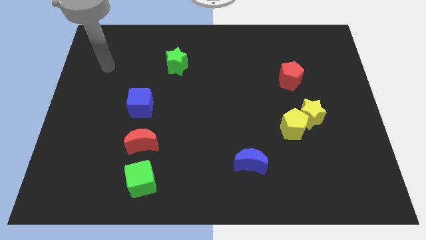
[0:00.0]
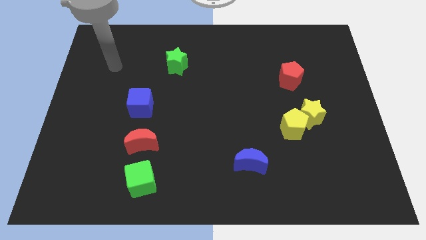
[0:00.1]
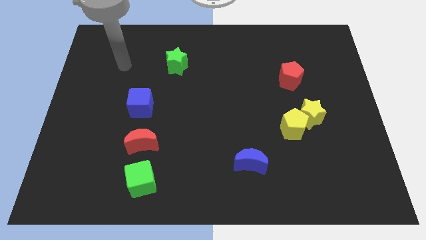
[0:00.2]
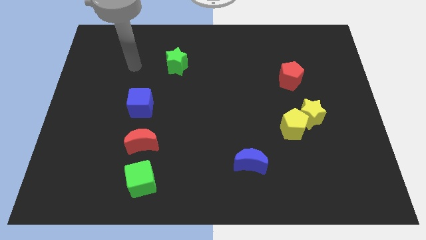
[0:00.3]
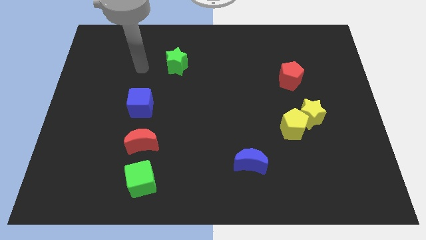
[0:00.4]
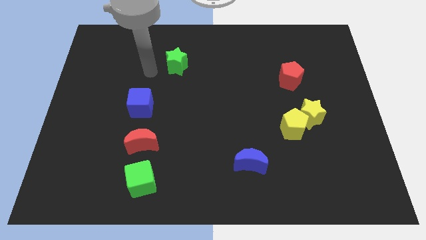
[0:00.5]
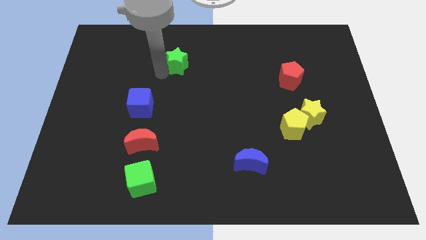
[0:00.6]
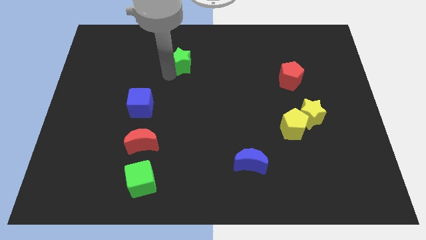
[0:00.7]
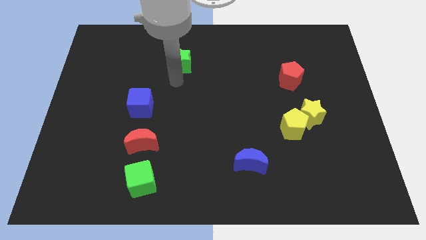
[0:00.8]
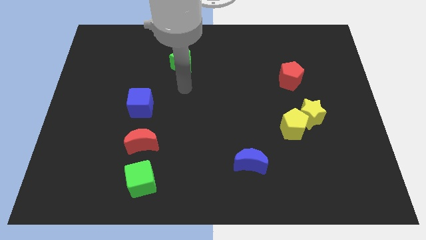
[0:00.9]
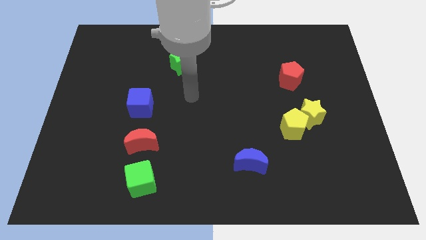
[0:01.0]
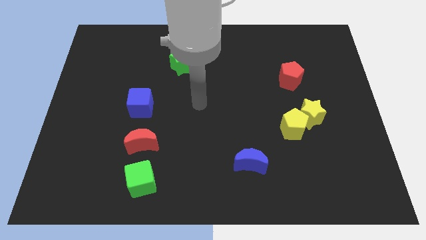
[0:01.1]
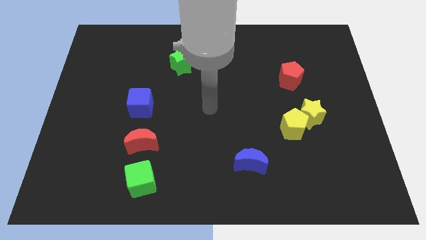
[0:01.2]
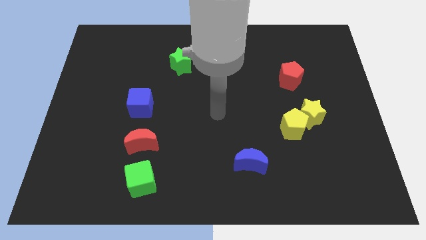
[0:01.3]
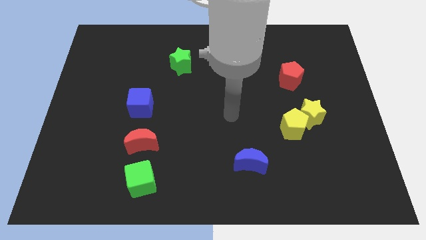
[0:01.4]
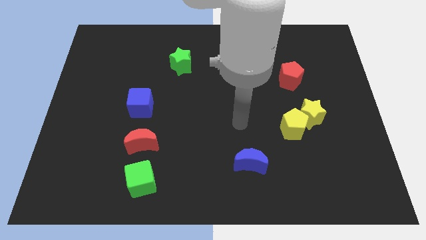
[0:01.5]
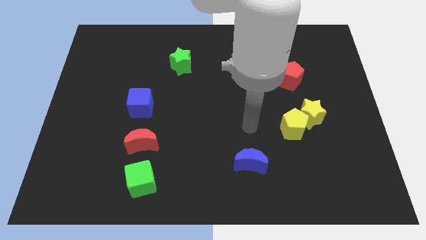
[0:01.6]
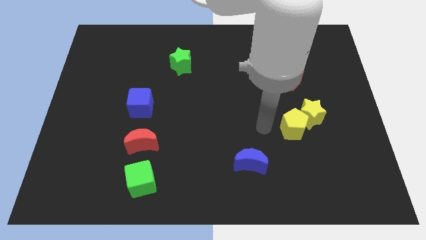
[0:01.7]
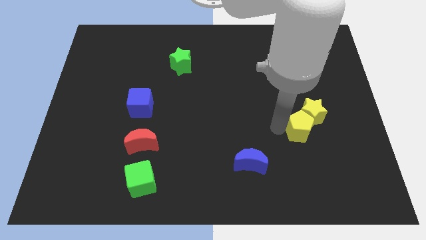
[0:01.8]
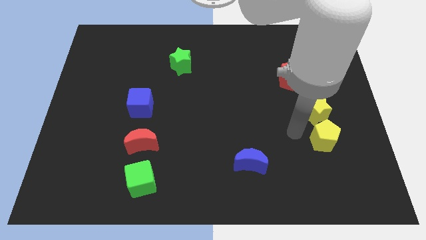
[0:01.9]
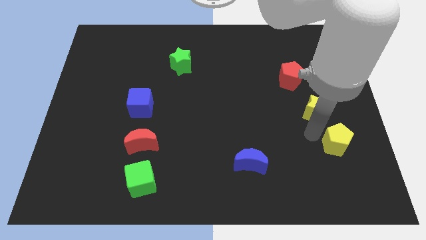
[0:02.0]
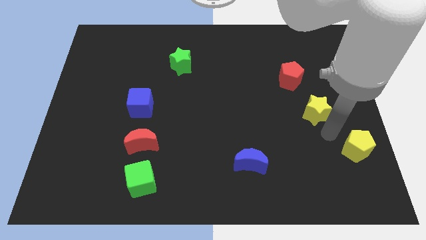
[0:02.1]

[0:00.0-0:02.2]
pull the yellow star apart from the yellow pentagon

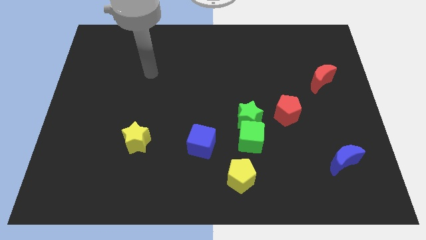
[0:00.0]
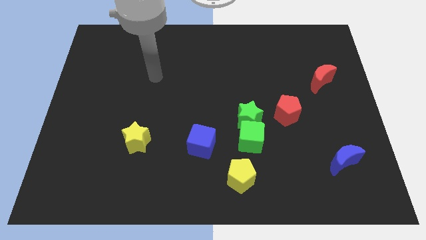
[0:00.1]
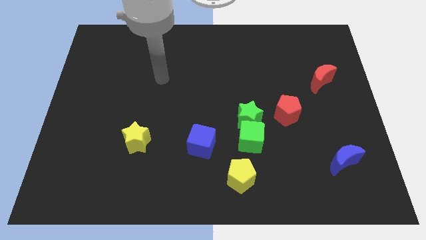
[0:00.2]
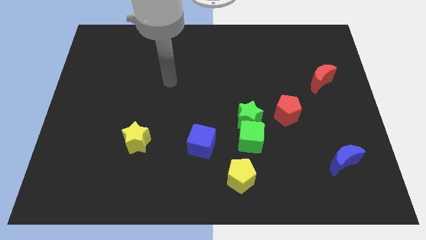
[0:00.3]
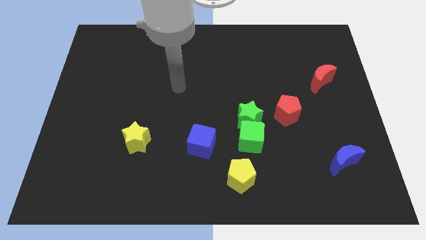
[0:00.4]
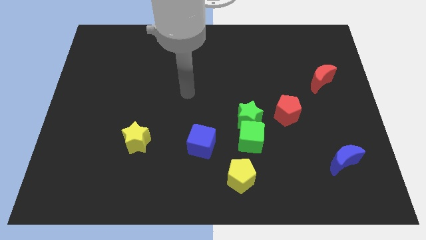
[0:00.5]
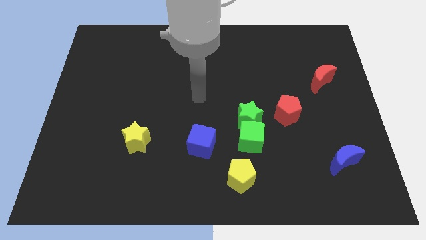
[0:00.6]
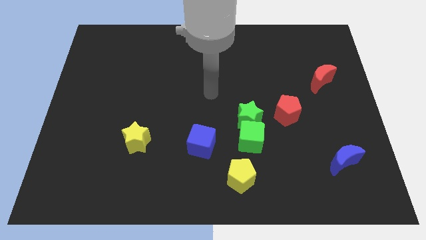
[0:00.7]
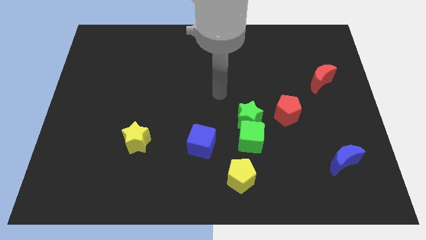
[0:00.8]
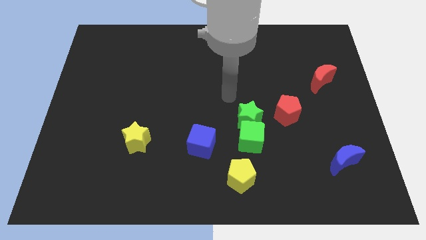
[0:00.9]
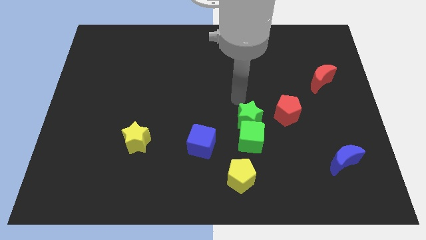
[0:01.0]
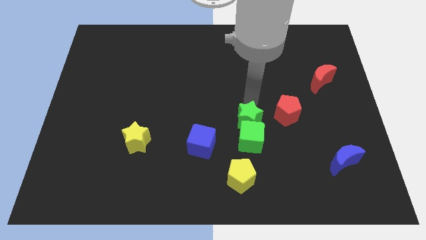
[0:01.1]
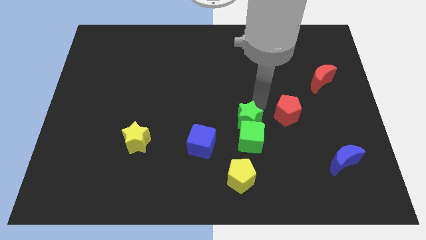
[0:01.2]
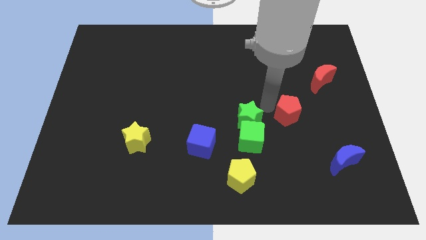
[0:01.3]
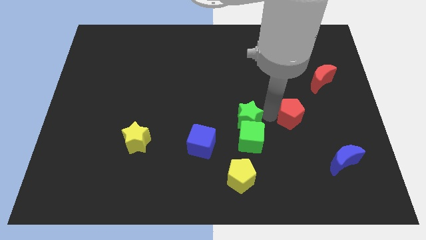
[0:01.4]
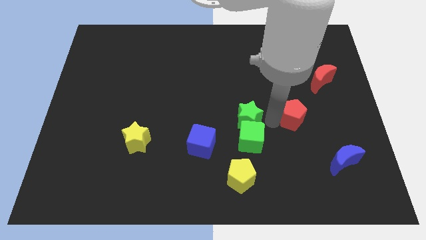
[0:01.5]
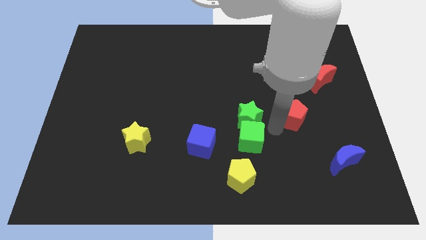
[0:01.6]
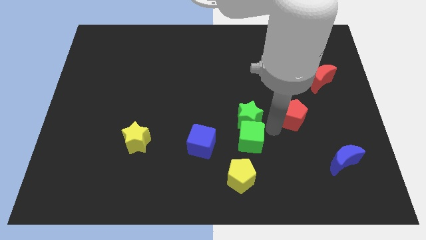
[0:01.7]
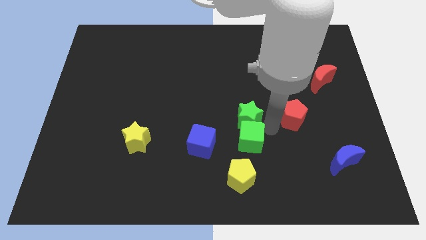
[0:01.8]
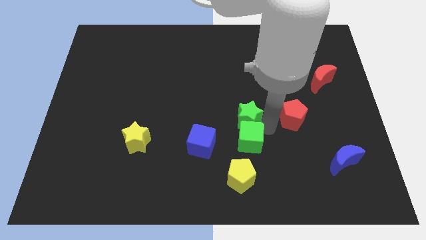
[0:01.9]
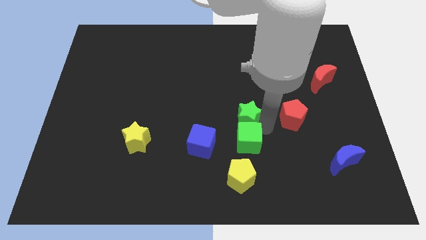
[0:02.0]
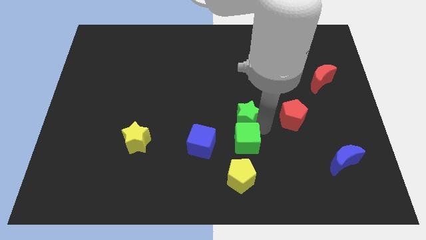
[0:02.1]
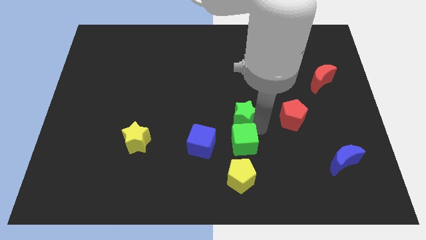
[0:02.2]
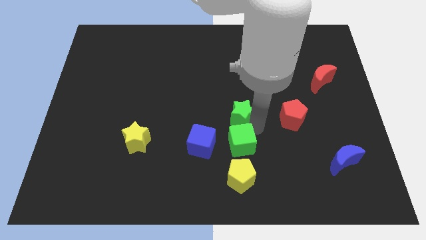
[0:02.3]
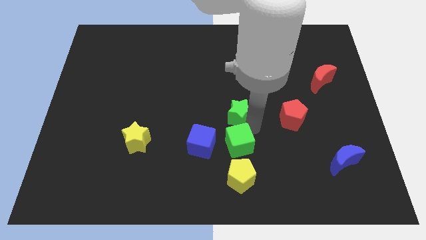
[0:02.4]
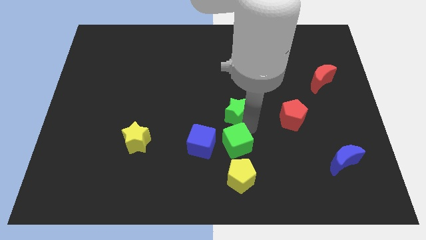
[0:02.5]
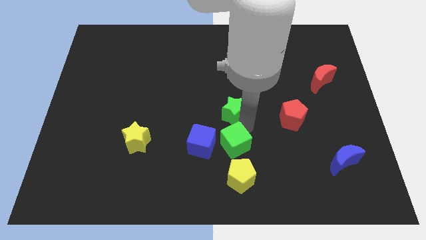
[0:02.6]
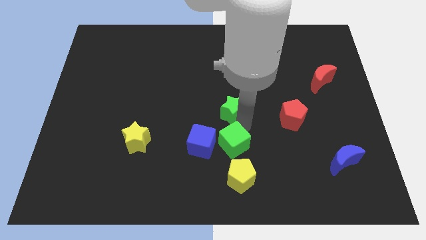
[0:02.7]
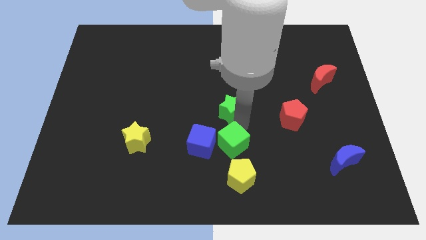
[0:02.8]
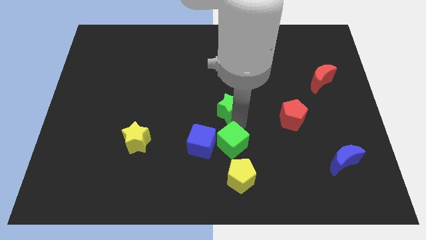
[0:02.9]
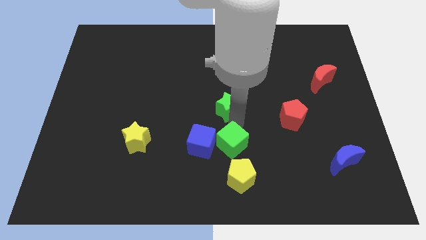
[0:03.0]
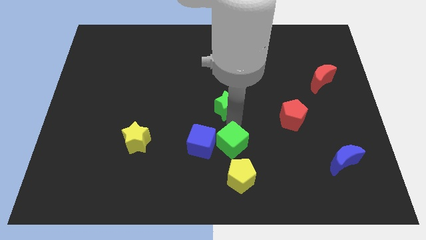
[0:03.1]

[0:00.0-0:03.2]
move the green star away from the green cube and red pentagon

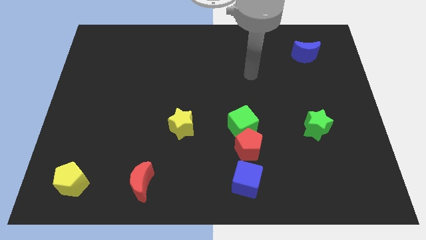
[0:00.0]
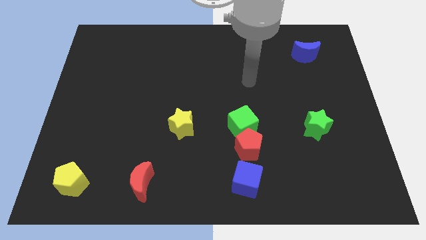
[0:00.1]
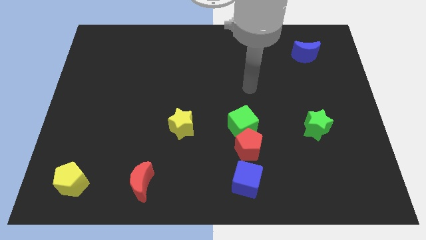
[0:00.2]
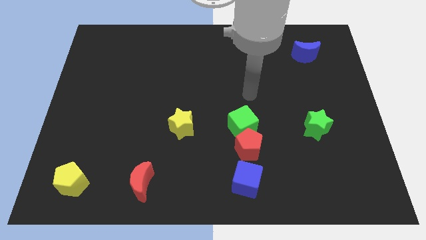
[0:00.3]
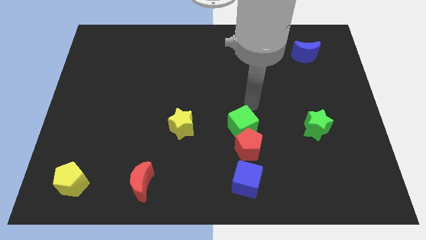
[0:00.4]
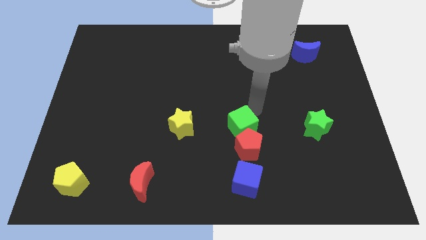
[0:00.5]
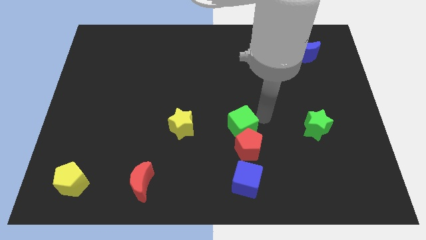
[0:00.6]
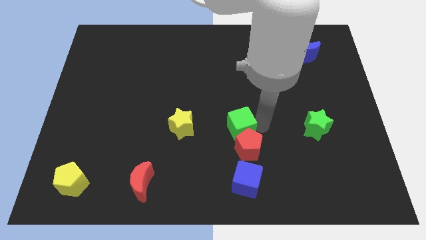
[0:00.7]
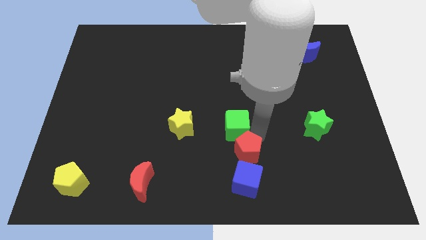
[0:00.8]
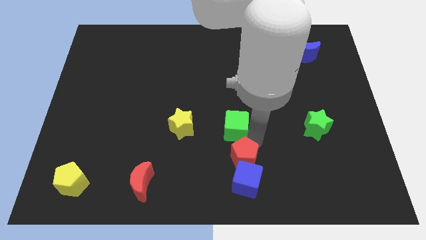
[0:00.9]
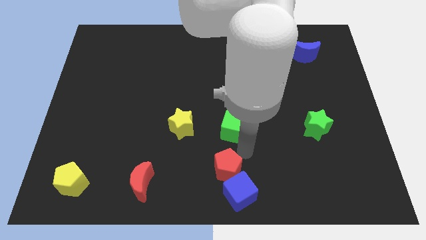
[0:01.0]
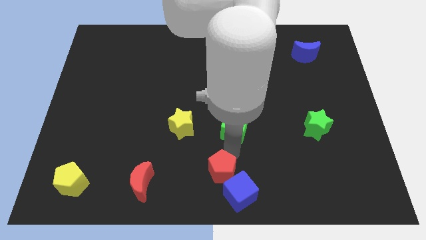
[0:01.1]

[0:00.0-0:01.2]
move the green cube away from the red pentagon

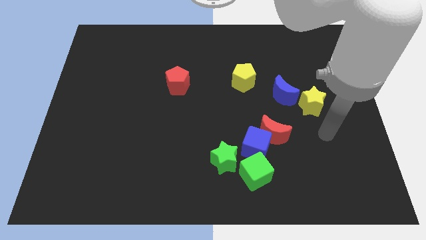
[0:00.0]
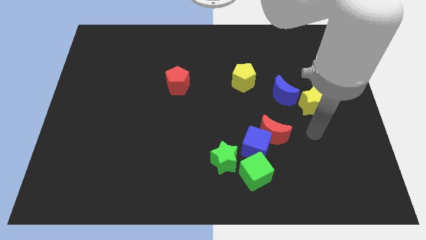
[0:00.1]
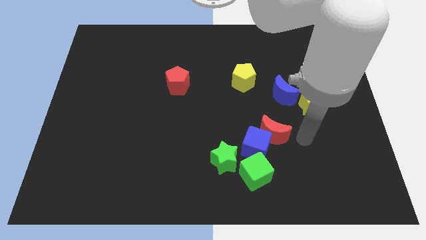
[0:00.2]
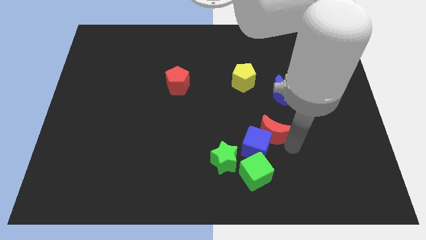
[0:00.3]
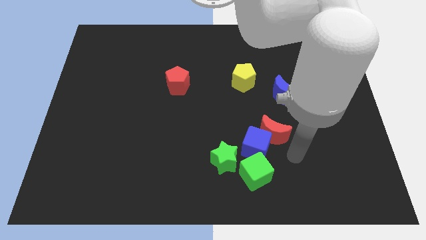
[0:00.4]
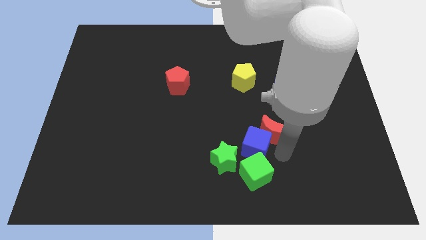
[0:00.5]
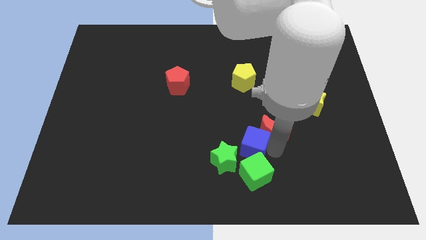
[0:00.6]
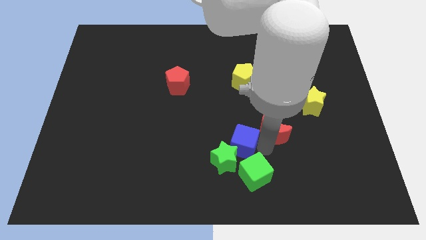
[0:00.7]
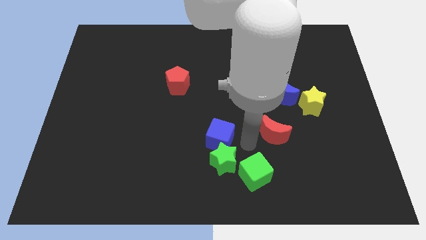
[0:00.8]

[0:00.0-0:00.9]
move the red moon away from the blue cube

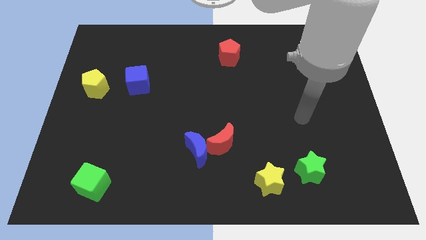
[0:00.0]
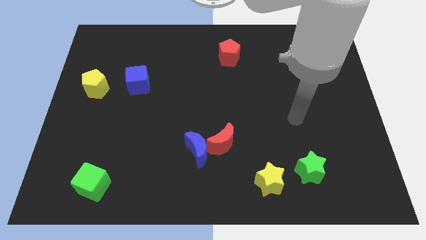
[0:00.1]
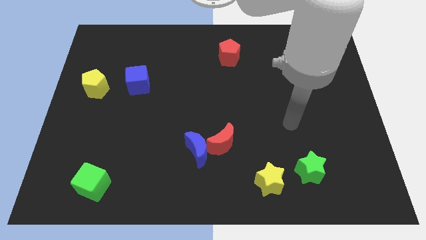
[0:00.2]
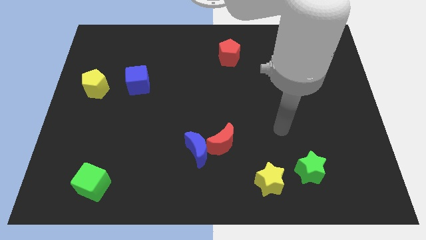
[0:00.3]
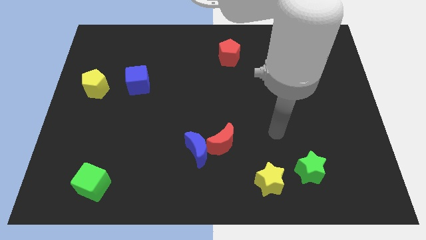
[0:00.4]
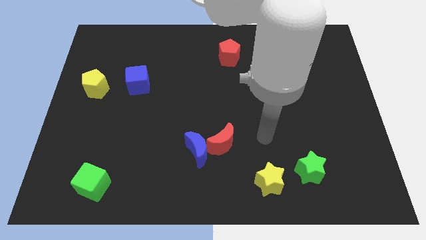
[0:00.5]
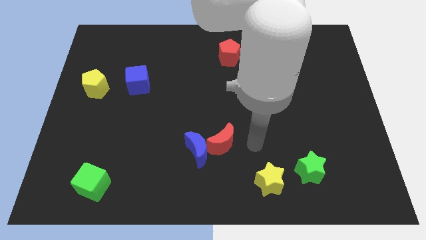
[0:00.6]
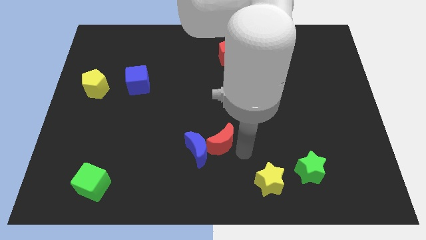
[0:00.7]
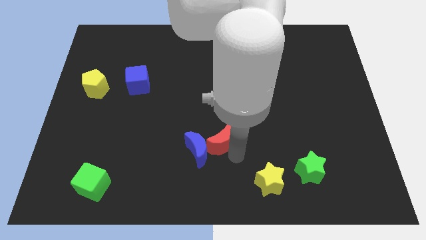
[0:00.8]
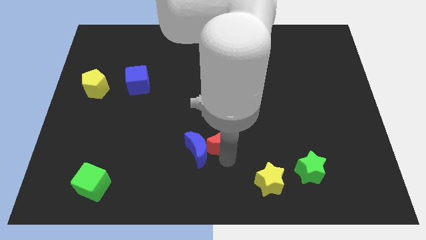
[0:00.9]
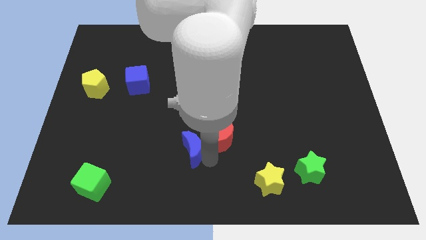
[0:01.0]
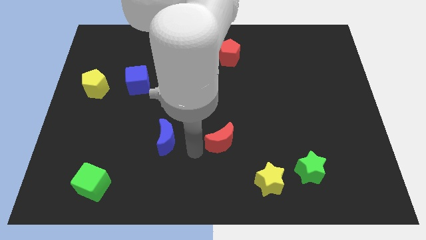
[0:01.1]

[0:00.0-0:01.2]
move the red moon away from the blue moon

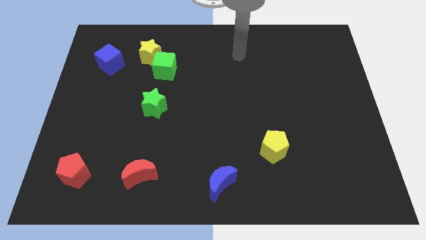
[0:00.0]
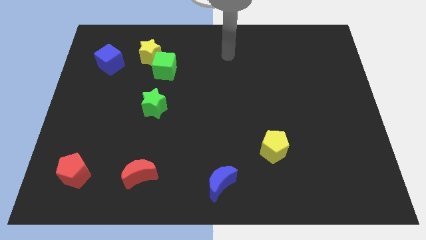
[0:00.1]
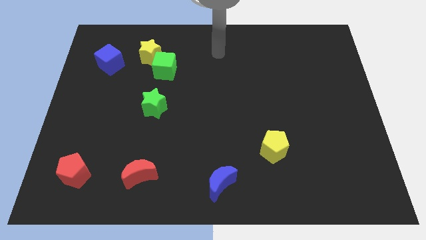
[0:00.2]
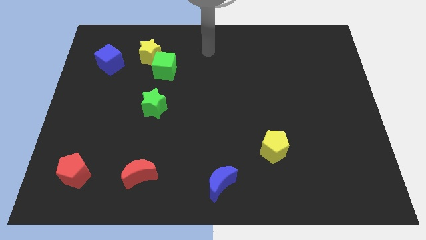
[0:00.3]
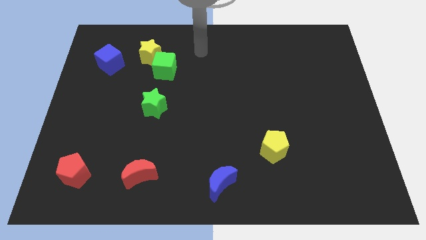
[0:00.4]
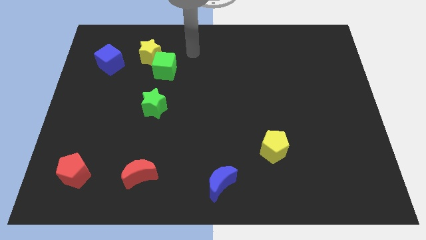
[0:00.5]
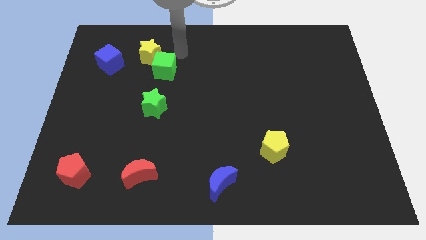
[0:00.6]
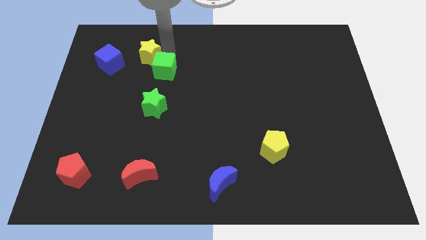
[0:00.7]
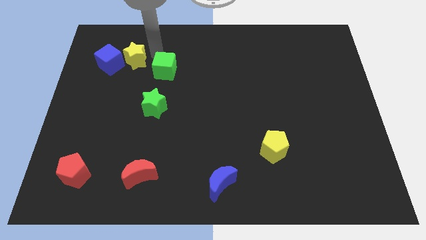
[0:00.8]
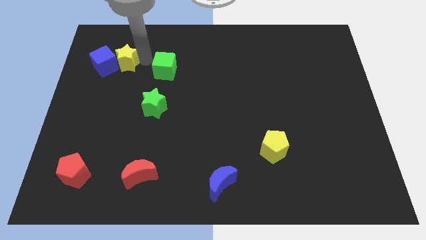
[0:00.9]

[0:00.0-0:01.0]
separate the green cube from the yellow star
